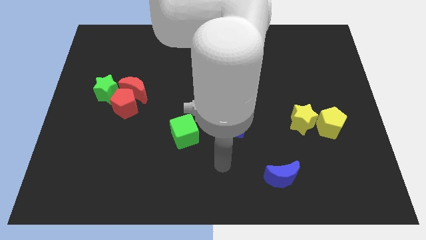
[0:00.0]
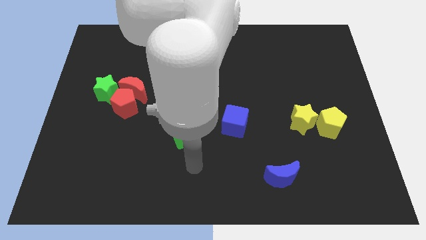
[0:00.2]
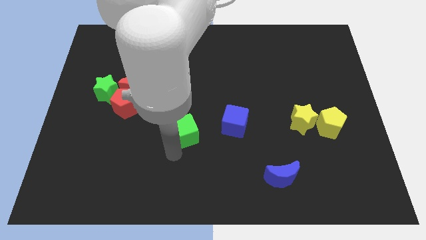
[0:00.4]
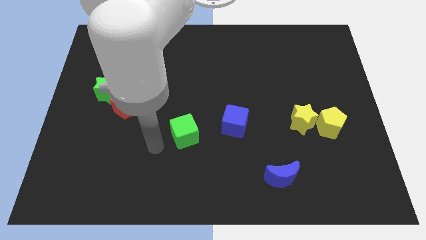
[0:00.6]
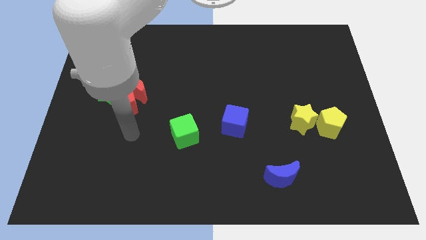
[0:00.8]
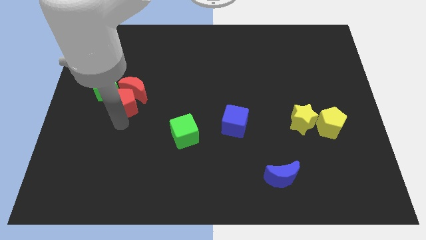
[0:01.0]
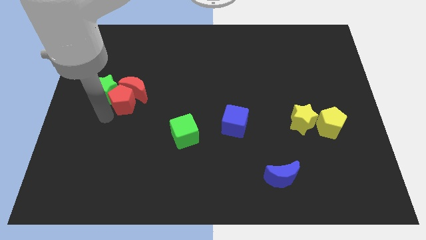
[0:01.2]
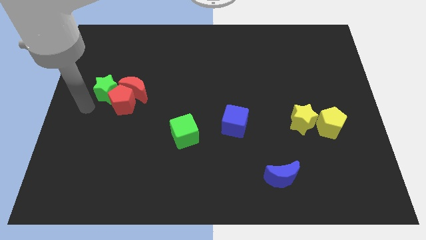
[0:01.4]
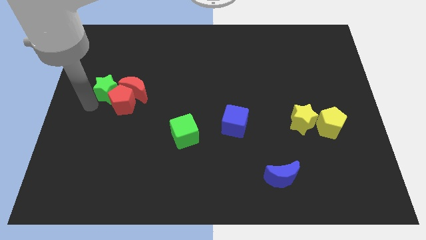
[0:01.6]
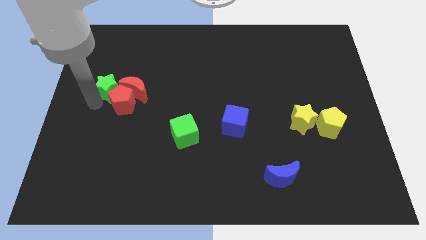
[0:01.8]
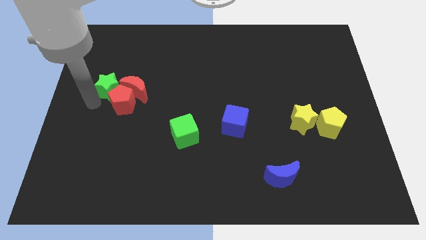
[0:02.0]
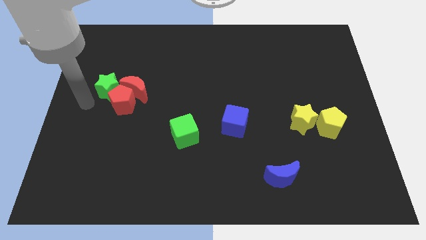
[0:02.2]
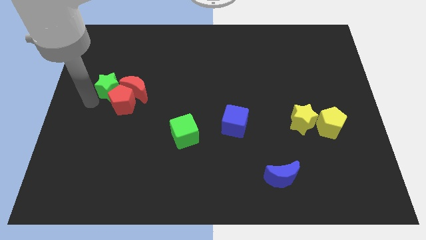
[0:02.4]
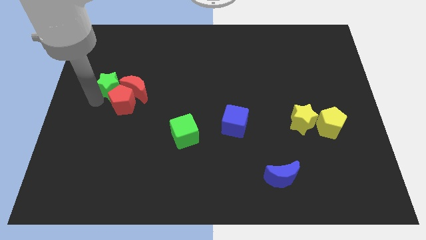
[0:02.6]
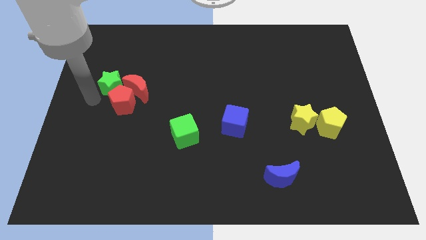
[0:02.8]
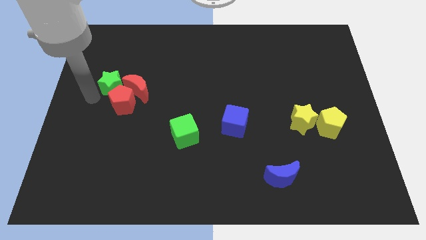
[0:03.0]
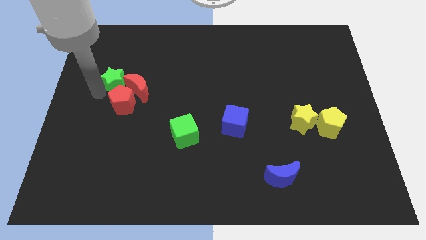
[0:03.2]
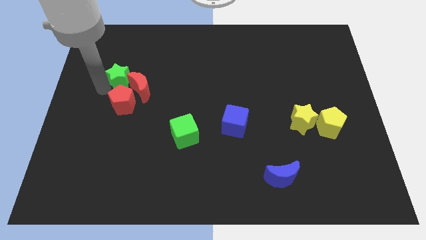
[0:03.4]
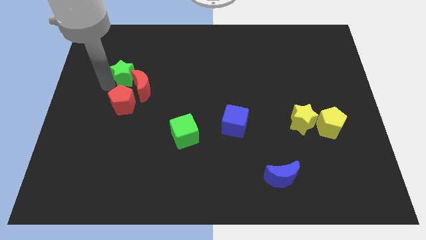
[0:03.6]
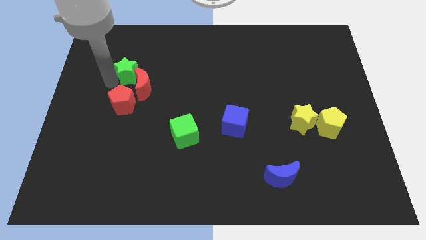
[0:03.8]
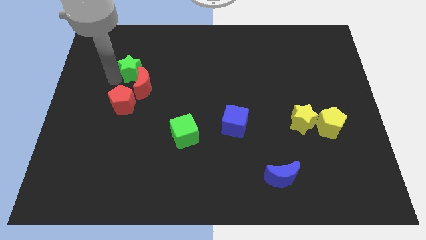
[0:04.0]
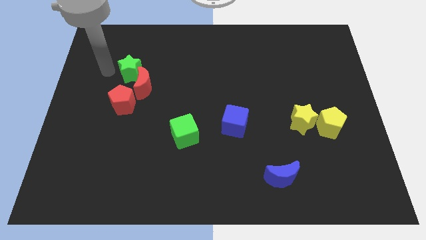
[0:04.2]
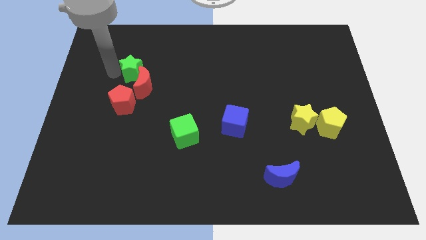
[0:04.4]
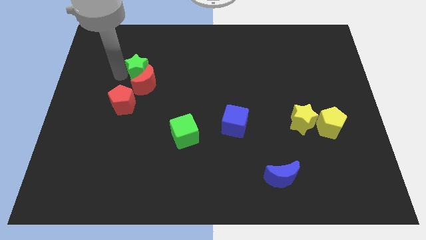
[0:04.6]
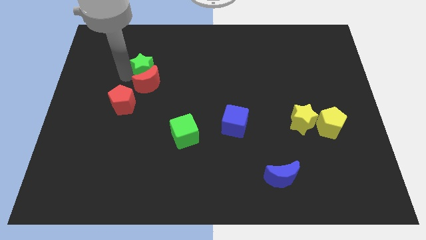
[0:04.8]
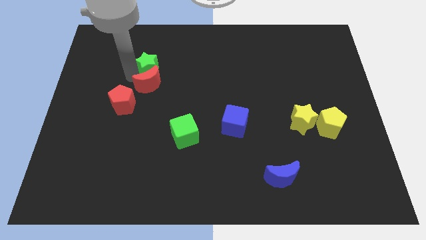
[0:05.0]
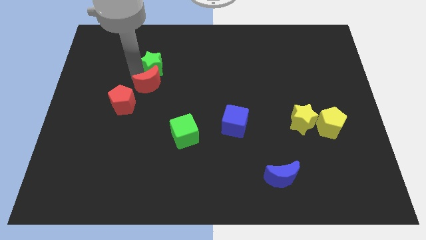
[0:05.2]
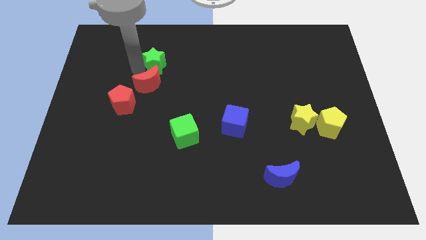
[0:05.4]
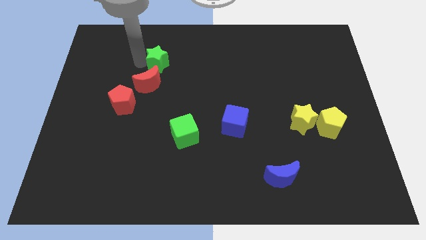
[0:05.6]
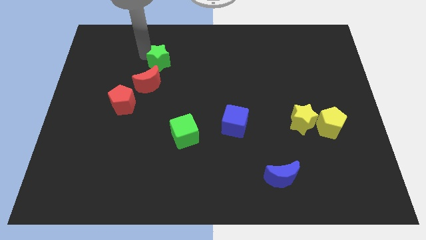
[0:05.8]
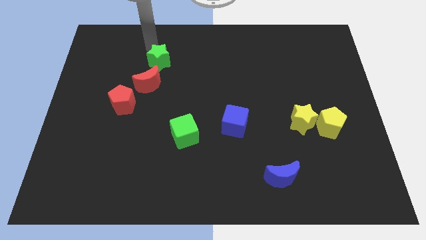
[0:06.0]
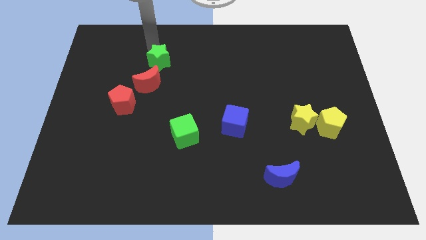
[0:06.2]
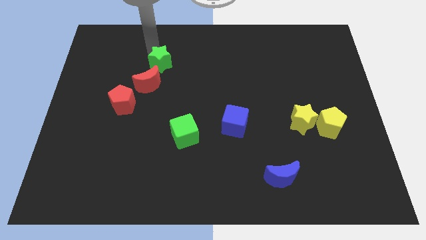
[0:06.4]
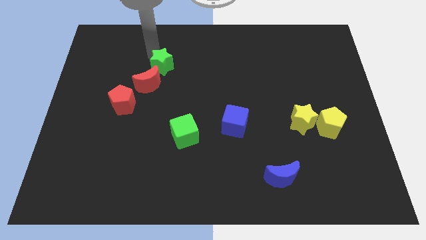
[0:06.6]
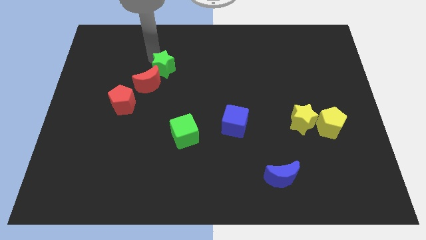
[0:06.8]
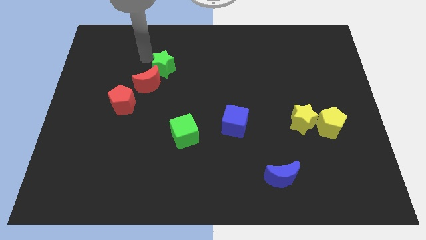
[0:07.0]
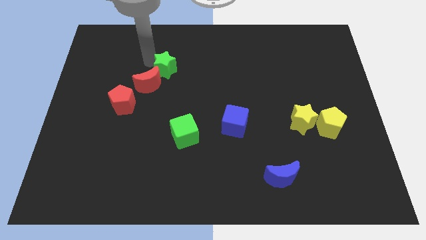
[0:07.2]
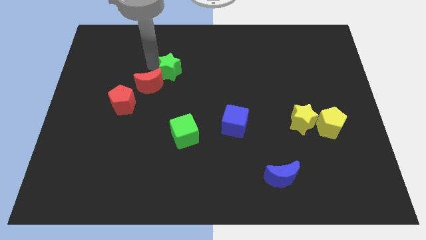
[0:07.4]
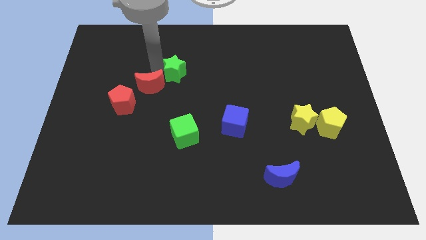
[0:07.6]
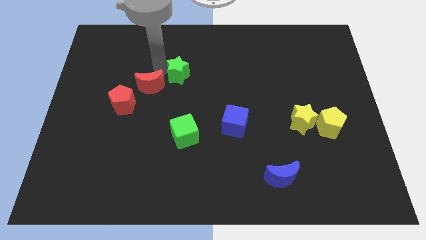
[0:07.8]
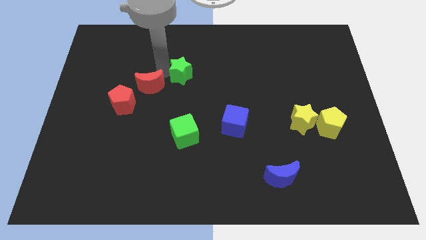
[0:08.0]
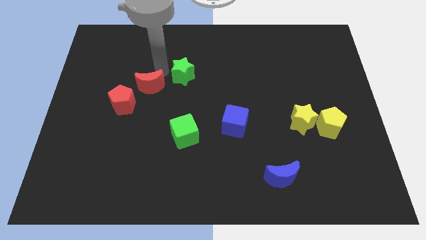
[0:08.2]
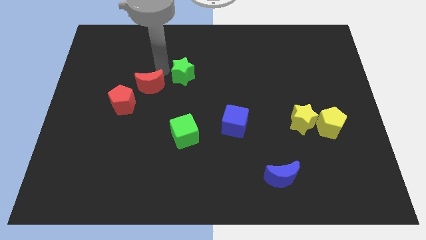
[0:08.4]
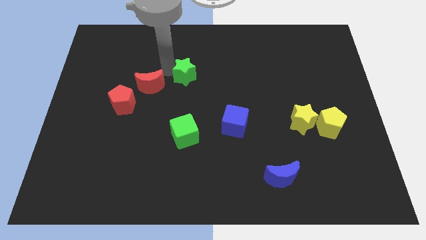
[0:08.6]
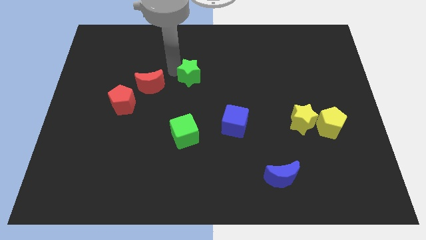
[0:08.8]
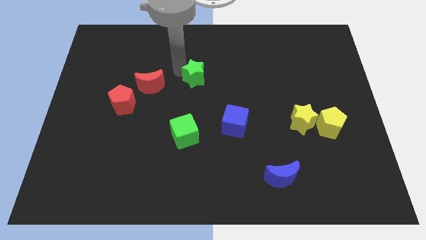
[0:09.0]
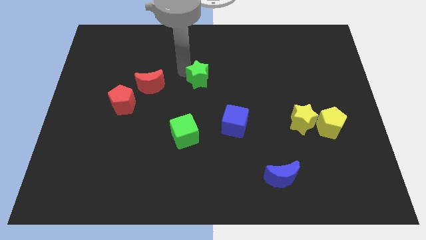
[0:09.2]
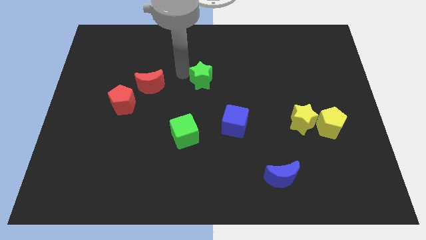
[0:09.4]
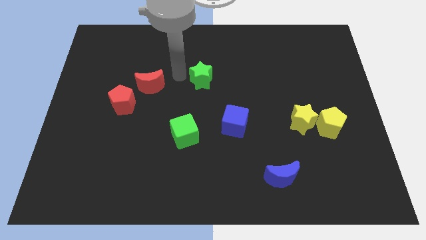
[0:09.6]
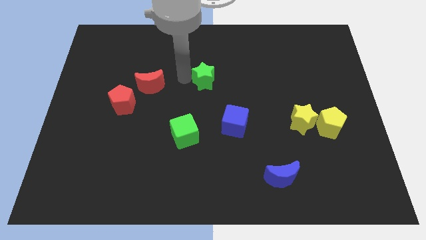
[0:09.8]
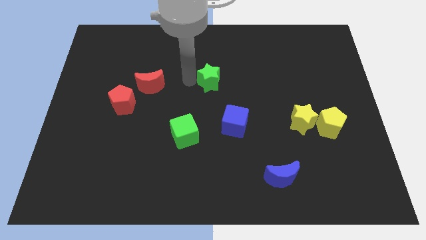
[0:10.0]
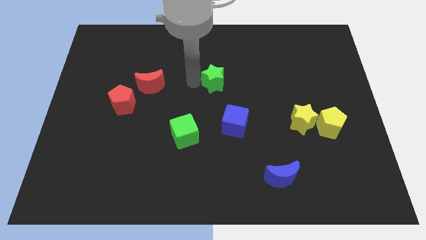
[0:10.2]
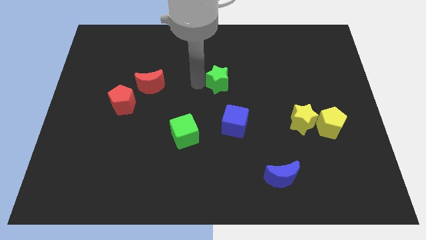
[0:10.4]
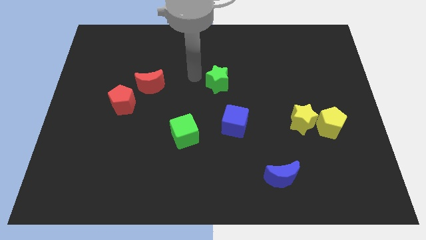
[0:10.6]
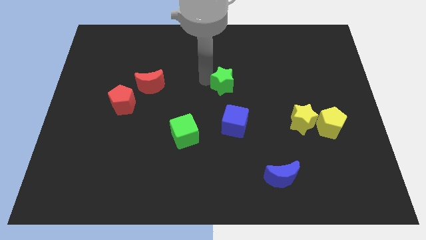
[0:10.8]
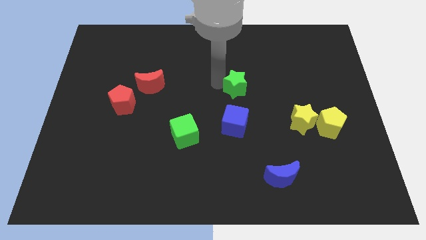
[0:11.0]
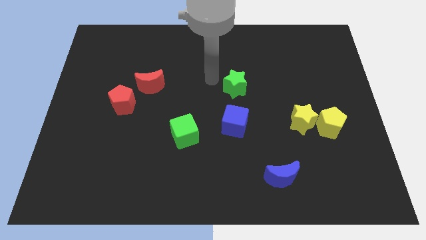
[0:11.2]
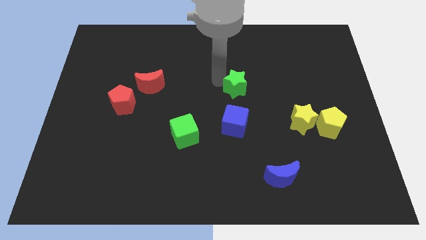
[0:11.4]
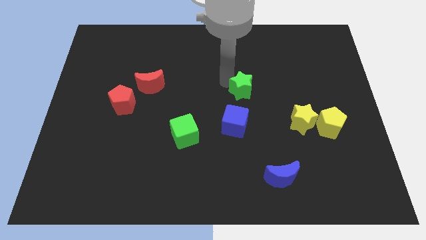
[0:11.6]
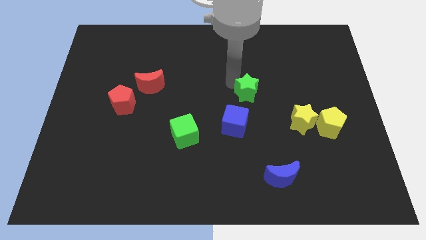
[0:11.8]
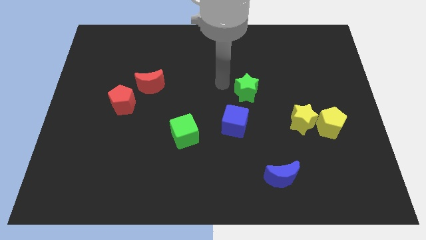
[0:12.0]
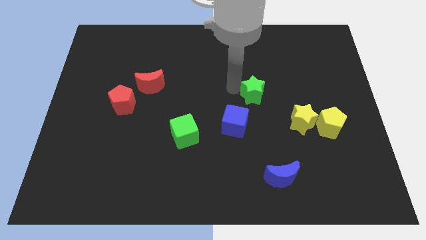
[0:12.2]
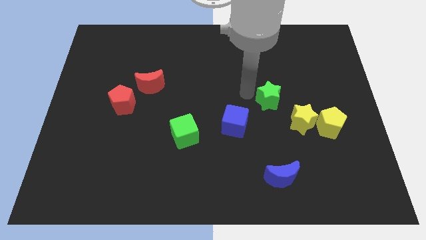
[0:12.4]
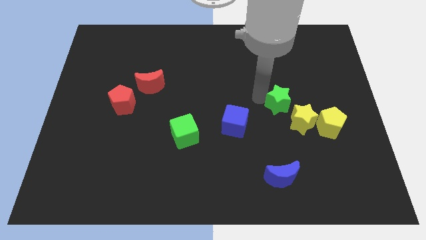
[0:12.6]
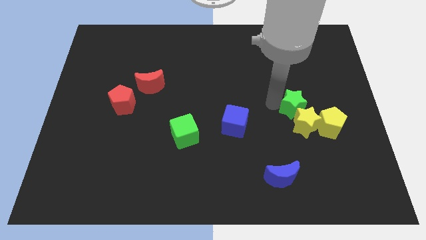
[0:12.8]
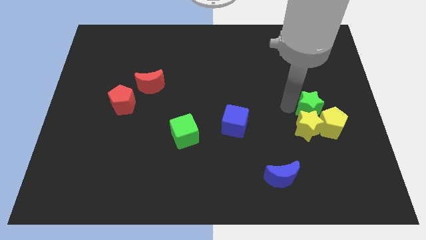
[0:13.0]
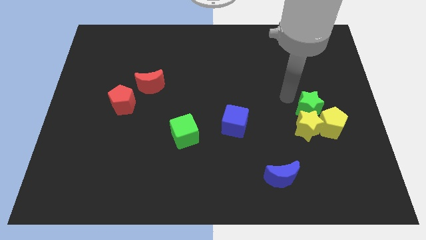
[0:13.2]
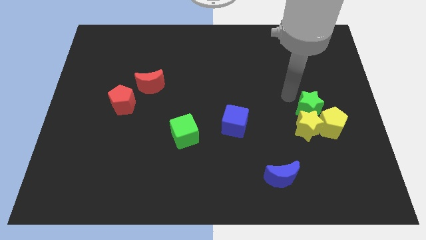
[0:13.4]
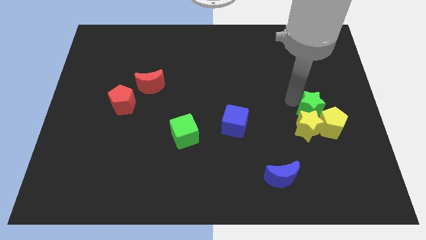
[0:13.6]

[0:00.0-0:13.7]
push the green star next to the yellow pentagon
